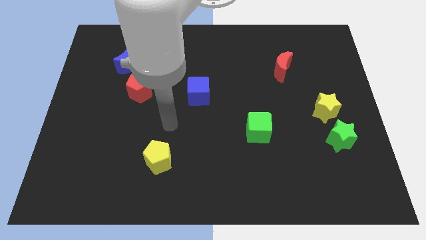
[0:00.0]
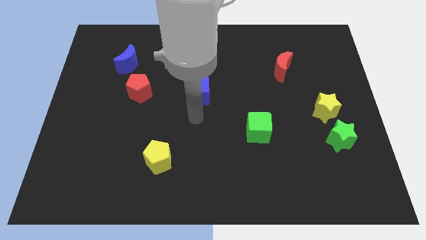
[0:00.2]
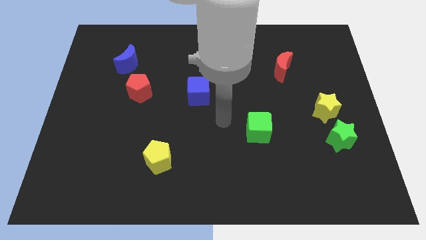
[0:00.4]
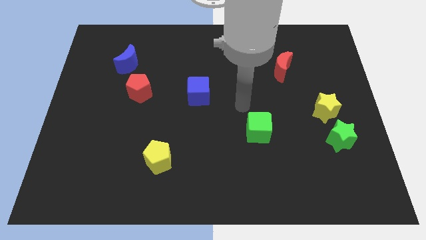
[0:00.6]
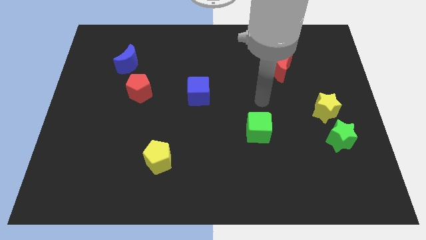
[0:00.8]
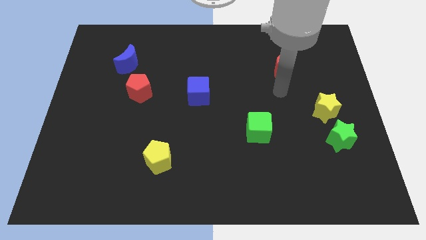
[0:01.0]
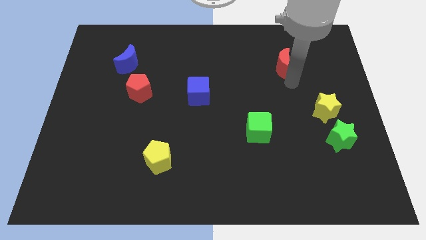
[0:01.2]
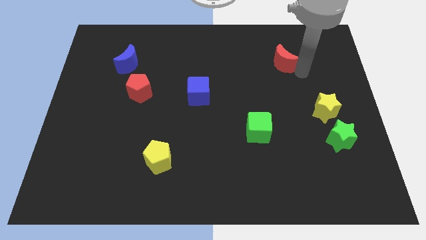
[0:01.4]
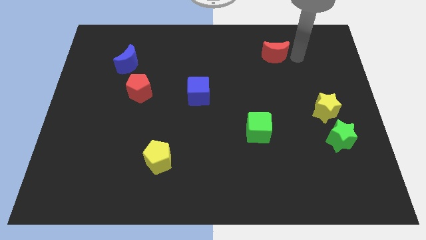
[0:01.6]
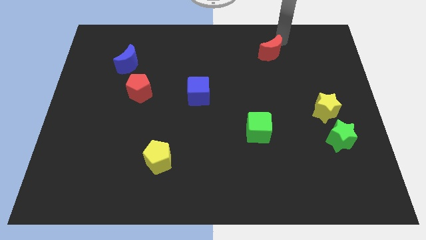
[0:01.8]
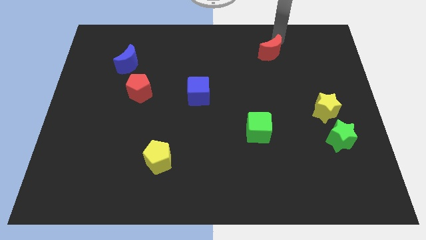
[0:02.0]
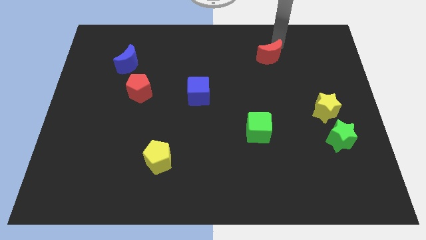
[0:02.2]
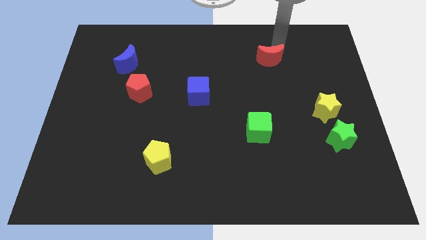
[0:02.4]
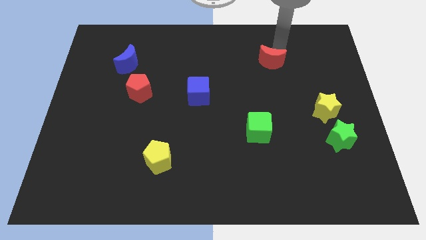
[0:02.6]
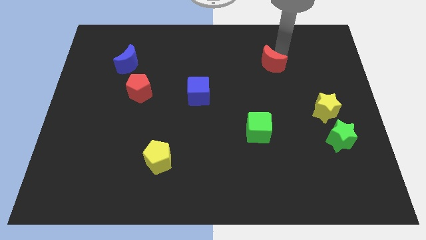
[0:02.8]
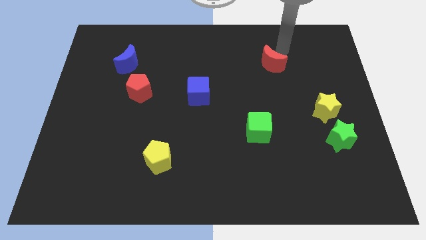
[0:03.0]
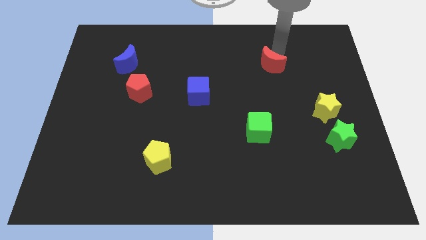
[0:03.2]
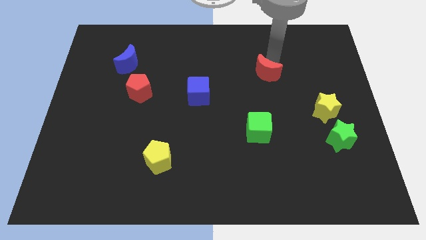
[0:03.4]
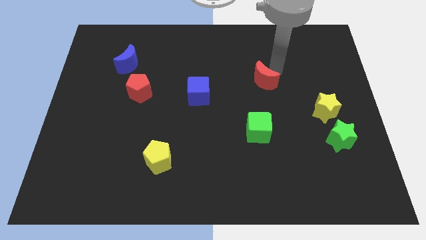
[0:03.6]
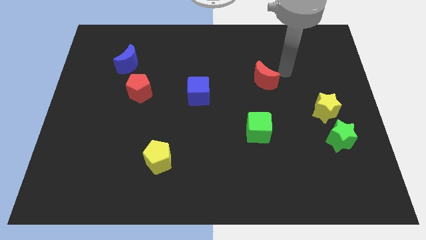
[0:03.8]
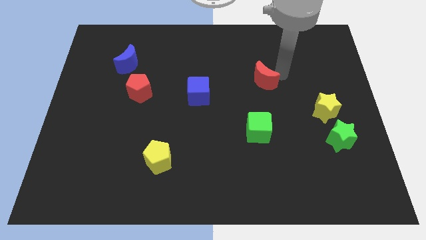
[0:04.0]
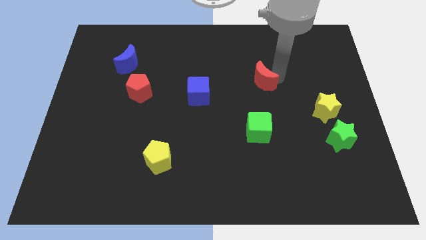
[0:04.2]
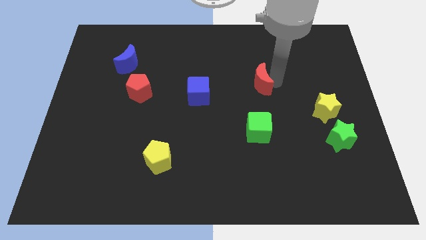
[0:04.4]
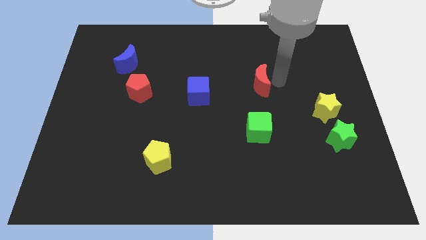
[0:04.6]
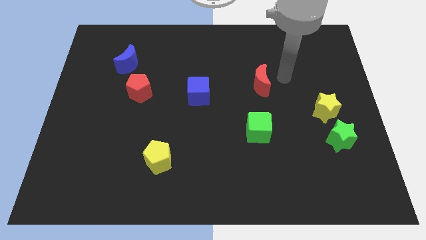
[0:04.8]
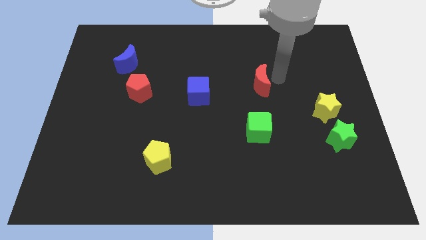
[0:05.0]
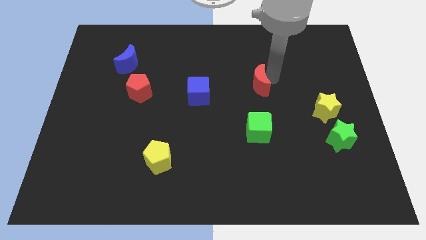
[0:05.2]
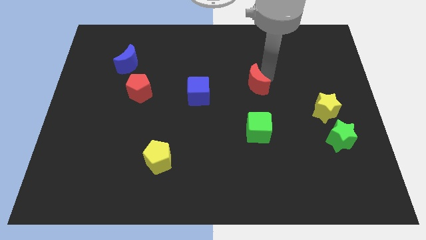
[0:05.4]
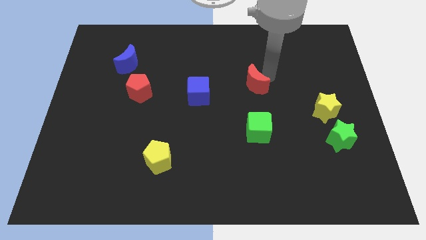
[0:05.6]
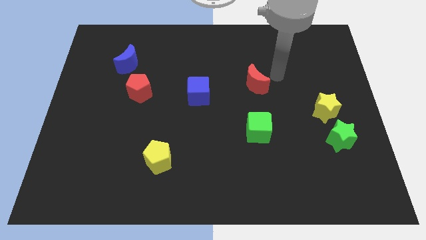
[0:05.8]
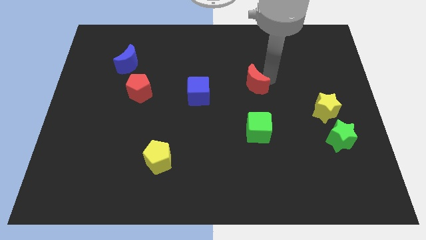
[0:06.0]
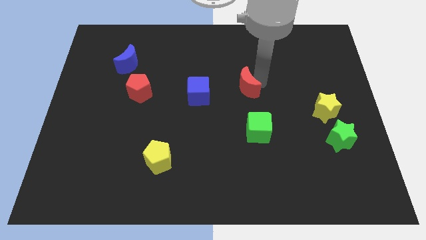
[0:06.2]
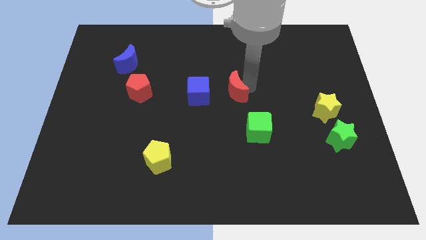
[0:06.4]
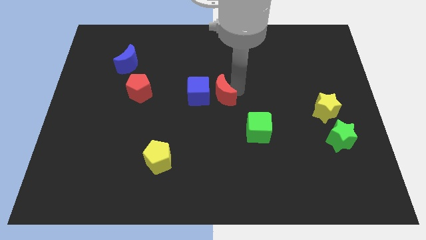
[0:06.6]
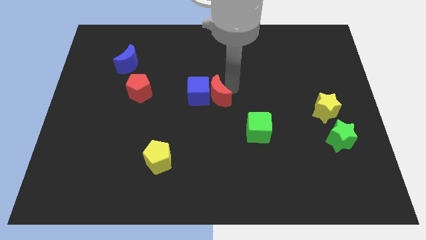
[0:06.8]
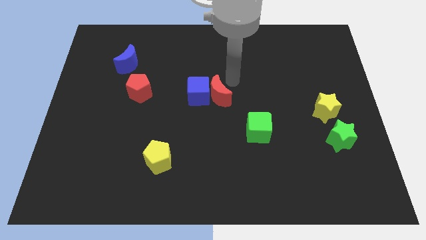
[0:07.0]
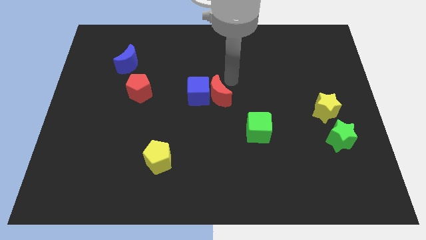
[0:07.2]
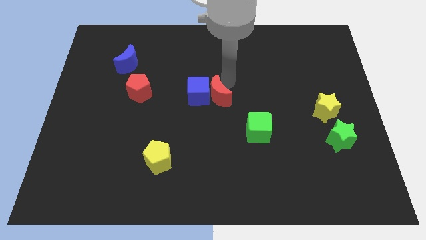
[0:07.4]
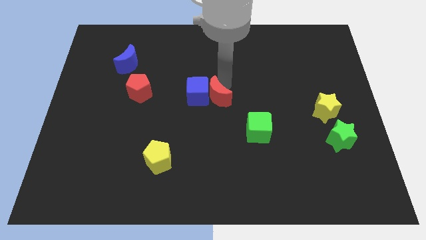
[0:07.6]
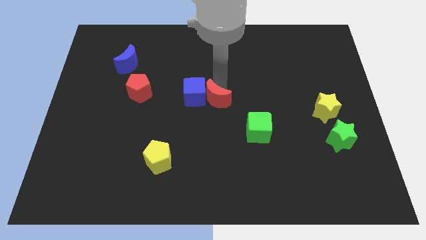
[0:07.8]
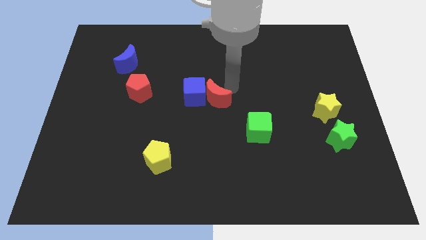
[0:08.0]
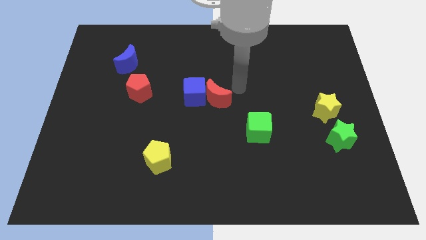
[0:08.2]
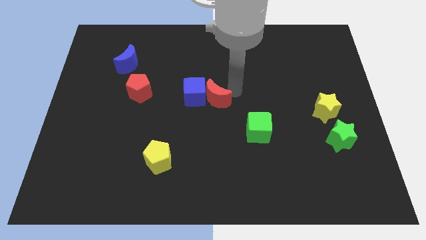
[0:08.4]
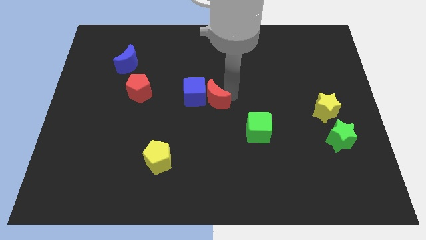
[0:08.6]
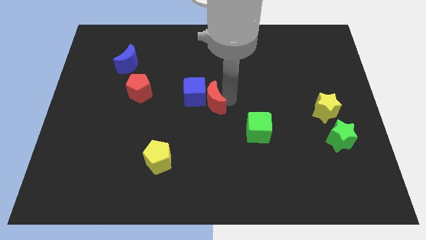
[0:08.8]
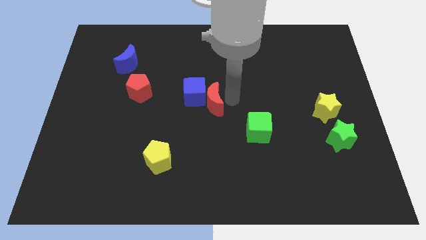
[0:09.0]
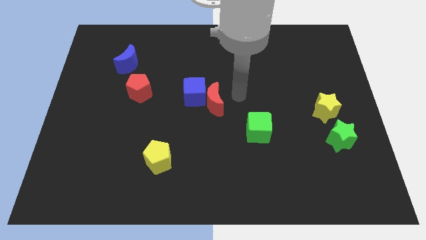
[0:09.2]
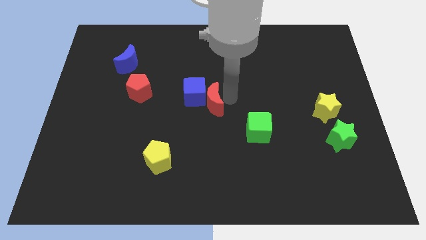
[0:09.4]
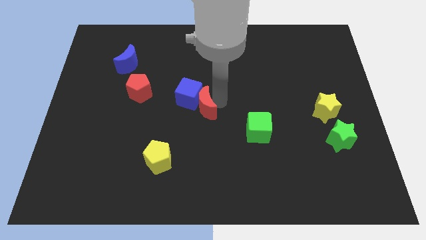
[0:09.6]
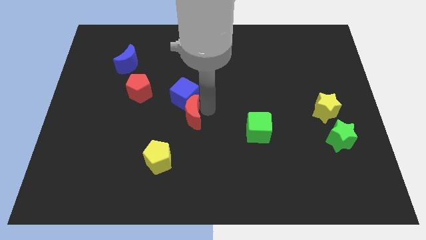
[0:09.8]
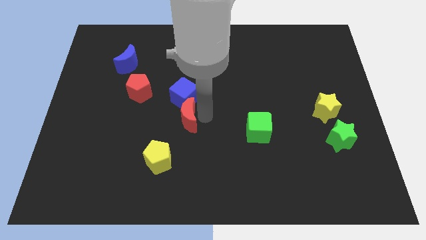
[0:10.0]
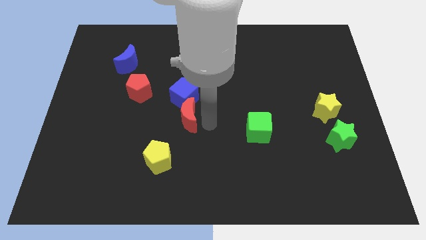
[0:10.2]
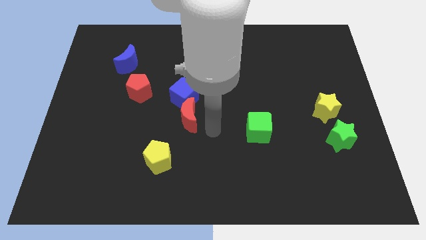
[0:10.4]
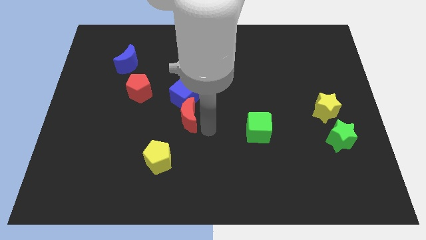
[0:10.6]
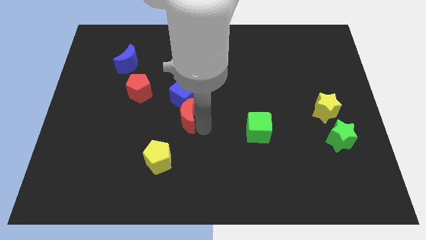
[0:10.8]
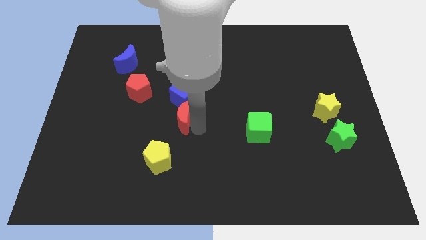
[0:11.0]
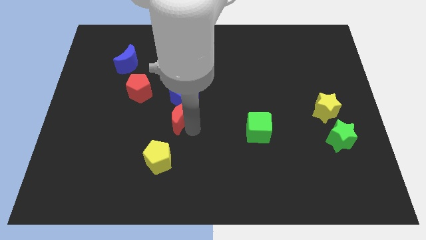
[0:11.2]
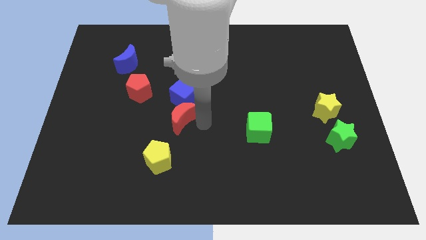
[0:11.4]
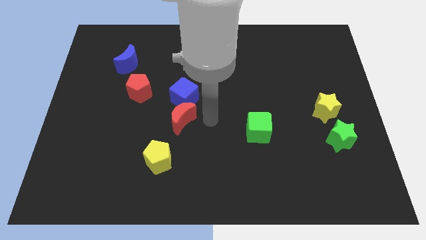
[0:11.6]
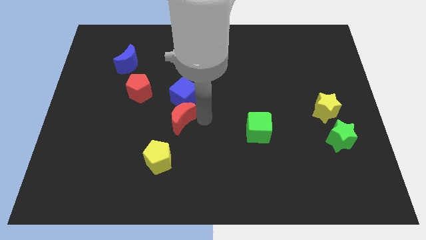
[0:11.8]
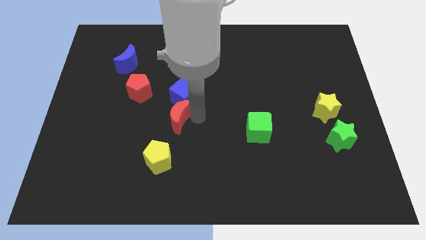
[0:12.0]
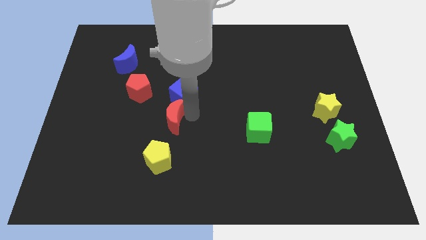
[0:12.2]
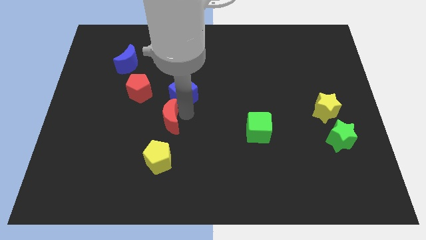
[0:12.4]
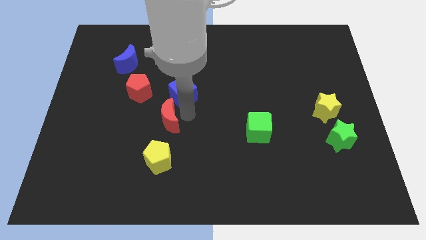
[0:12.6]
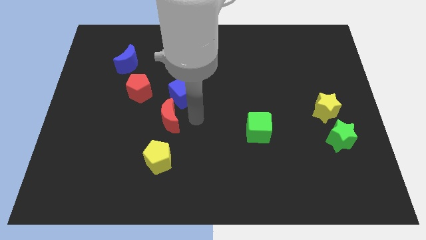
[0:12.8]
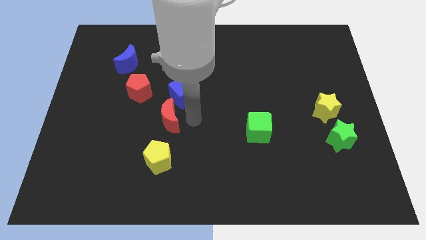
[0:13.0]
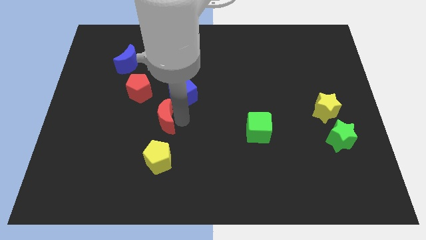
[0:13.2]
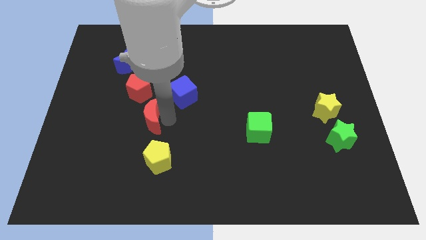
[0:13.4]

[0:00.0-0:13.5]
move the red moon below the red pentagon
